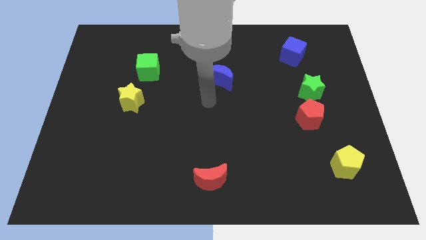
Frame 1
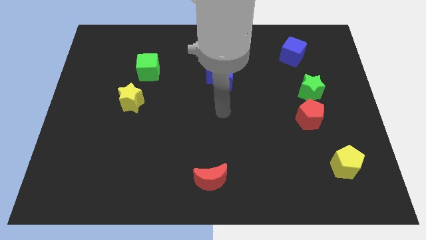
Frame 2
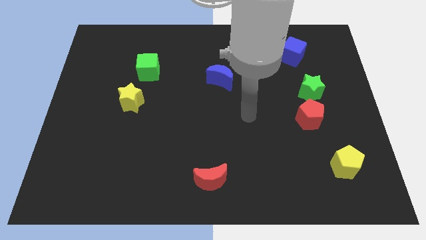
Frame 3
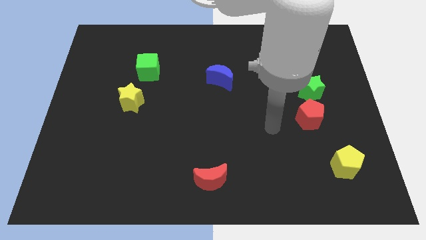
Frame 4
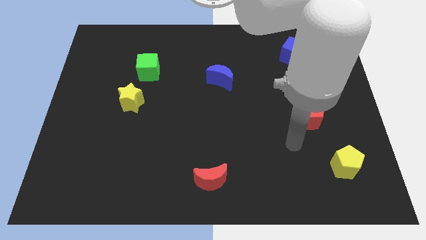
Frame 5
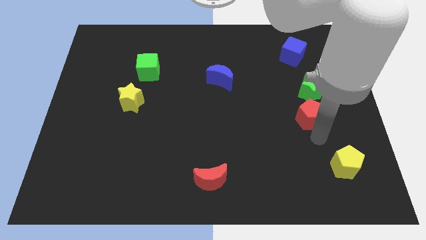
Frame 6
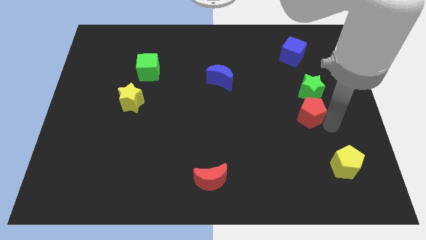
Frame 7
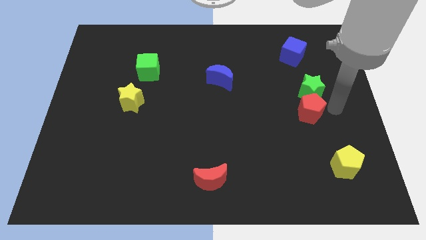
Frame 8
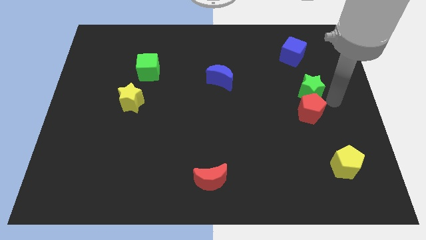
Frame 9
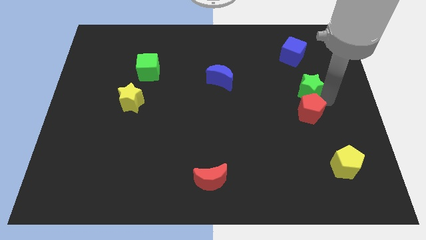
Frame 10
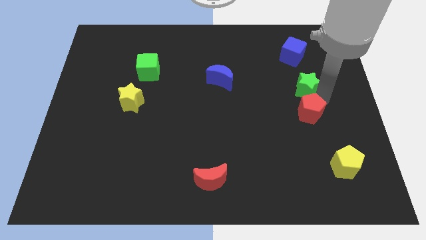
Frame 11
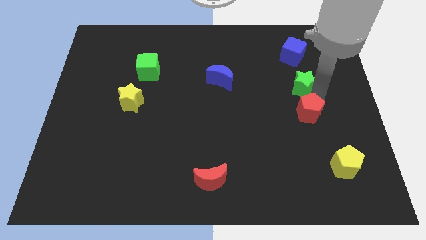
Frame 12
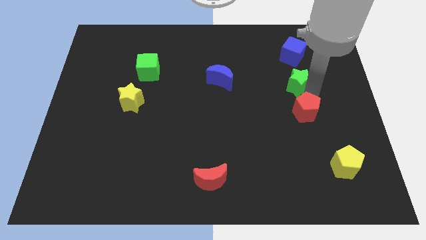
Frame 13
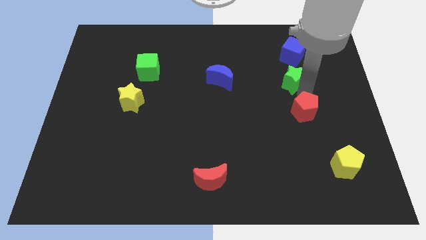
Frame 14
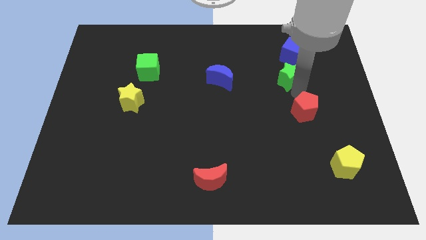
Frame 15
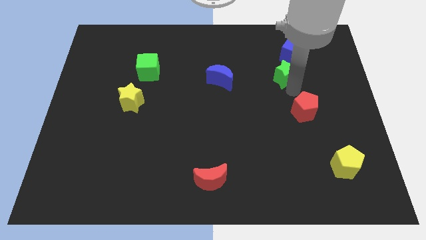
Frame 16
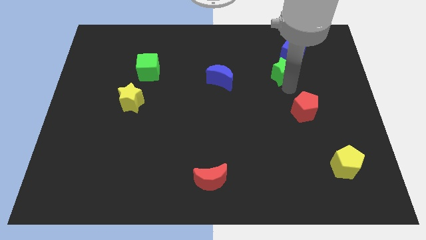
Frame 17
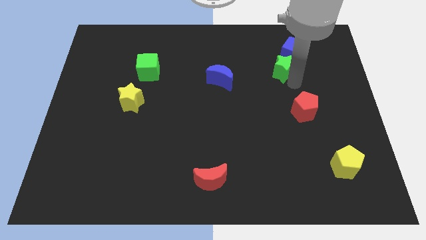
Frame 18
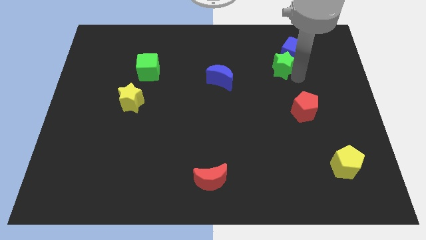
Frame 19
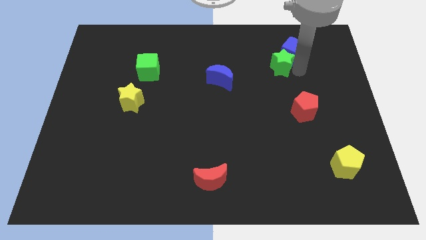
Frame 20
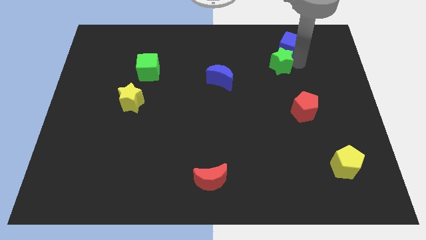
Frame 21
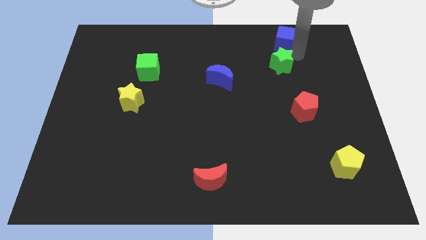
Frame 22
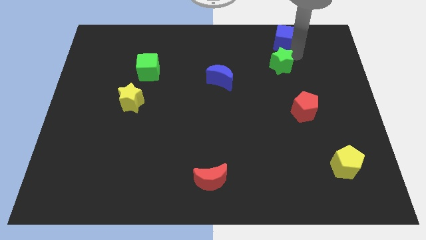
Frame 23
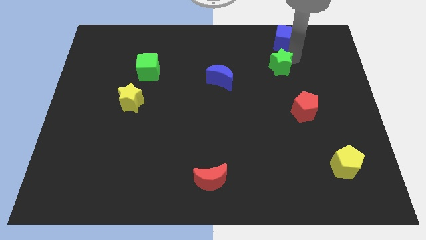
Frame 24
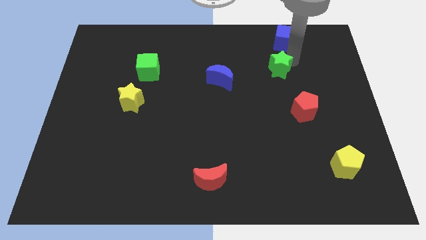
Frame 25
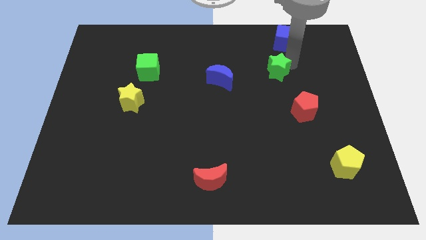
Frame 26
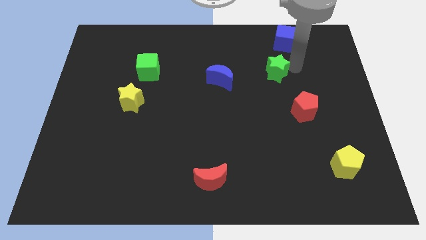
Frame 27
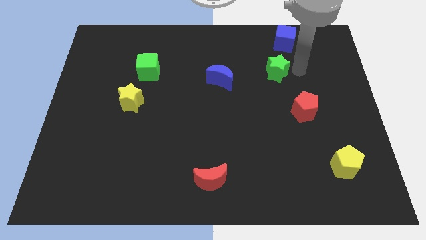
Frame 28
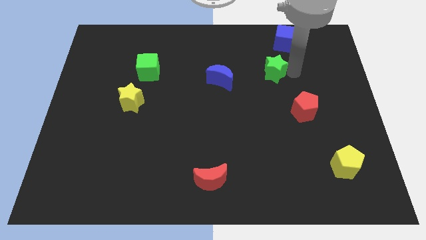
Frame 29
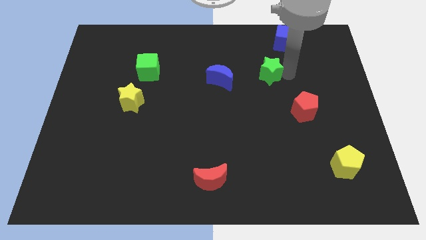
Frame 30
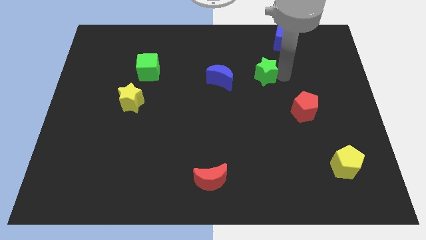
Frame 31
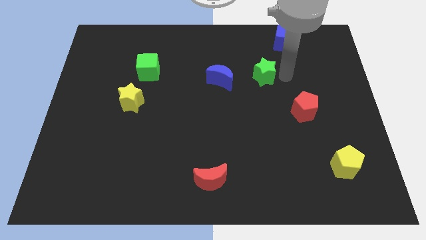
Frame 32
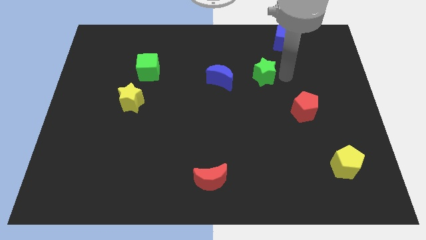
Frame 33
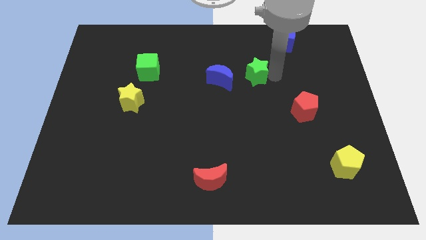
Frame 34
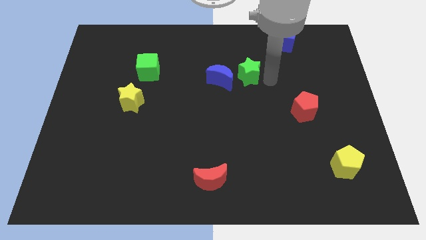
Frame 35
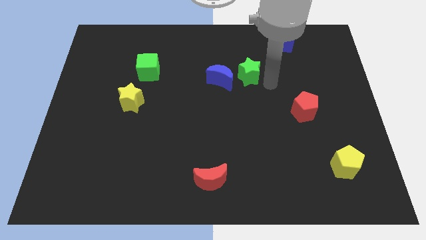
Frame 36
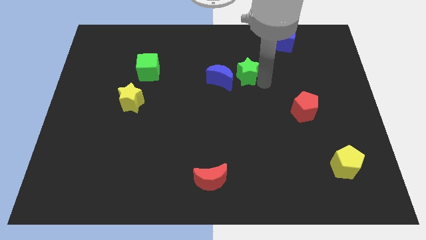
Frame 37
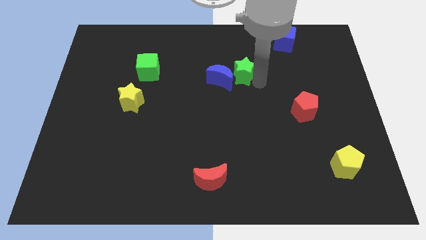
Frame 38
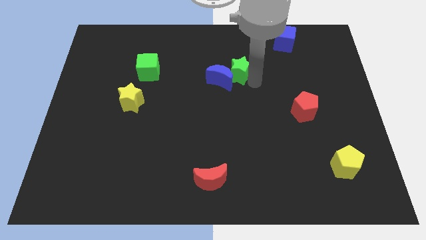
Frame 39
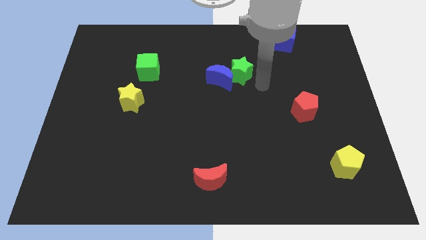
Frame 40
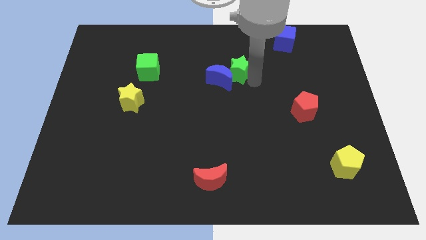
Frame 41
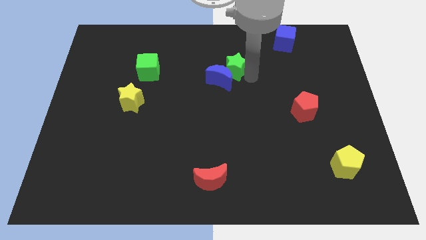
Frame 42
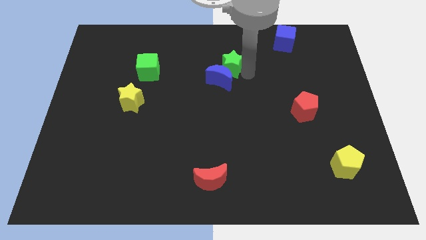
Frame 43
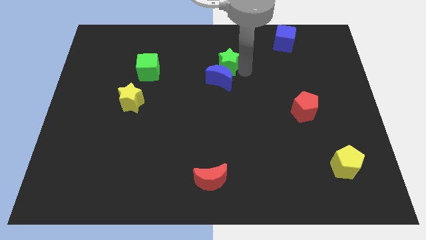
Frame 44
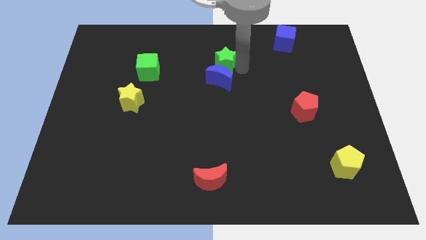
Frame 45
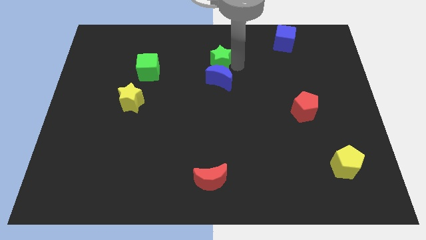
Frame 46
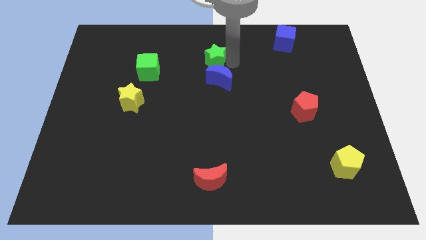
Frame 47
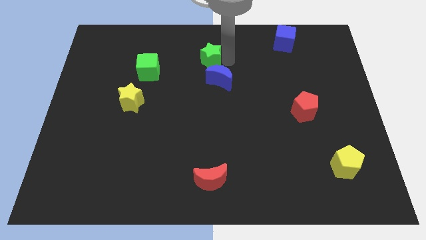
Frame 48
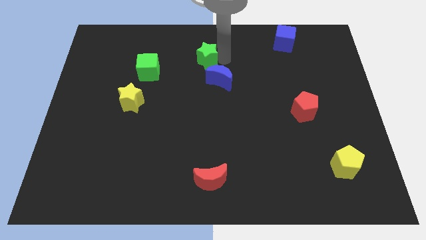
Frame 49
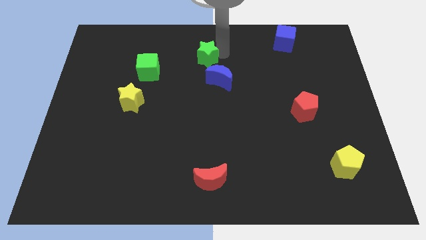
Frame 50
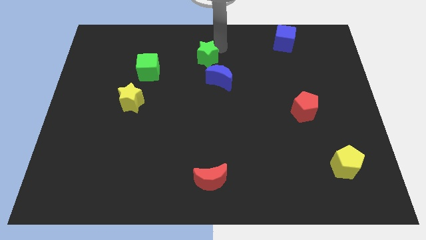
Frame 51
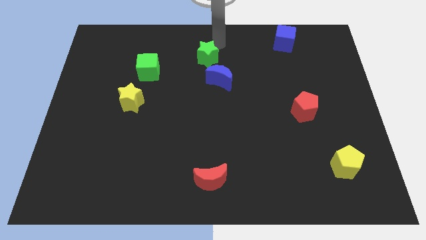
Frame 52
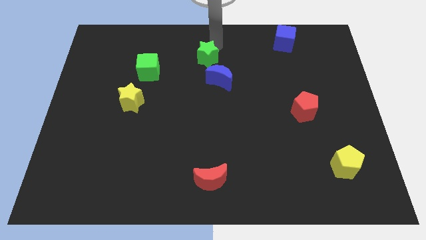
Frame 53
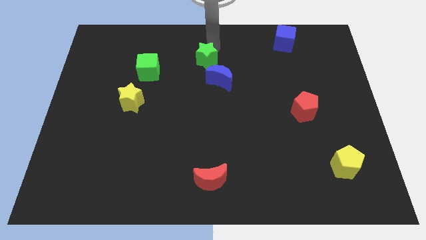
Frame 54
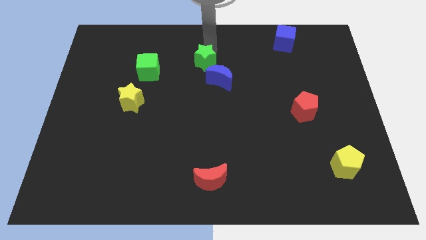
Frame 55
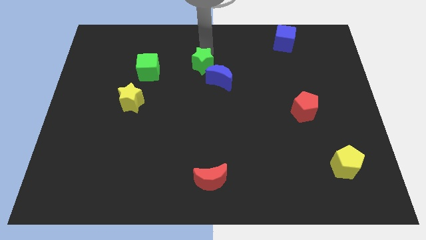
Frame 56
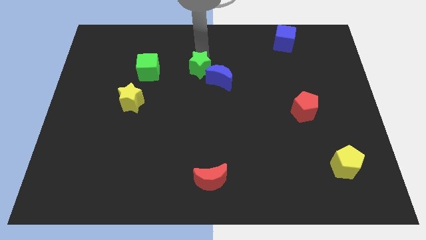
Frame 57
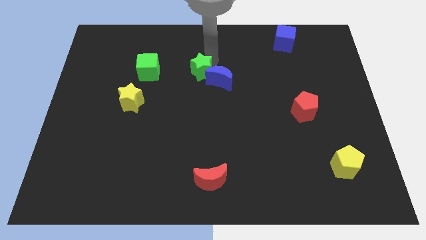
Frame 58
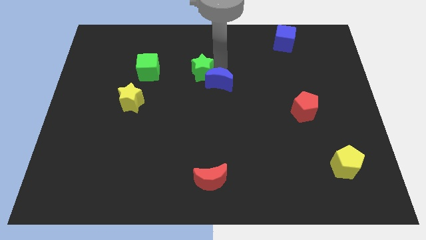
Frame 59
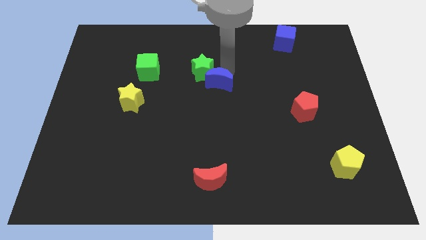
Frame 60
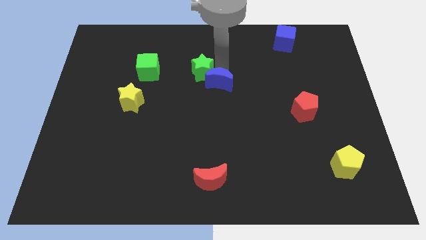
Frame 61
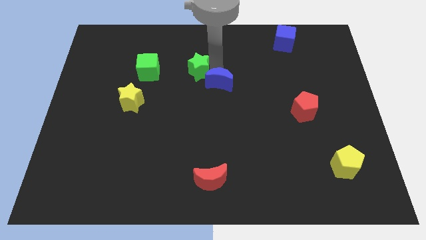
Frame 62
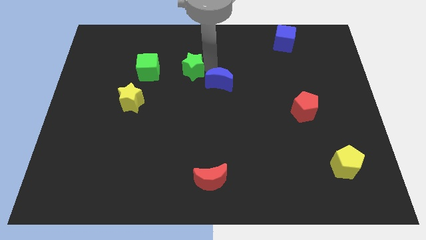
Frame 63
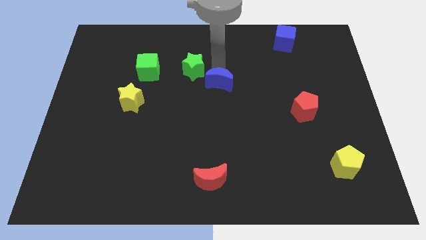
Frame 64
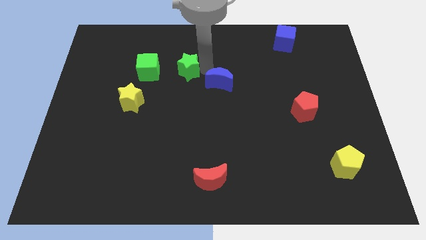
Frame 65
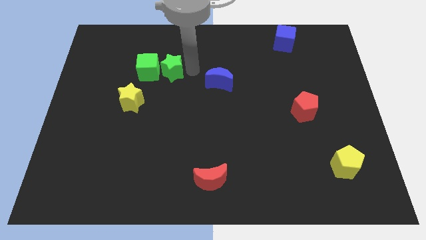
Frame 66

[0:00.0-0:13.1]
push the green star to the green cube
